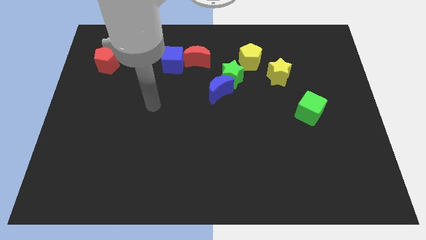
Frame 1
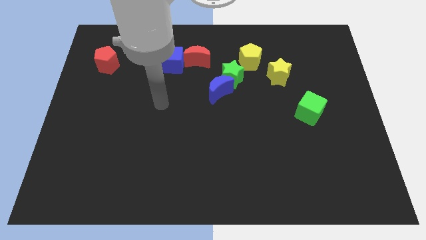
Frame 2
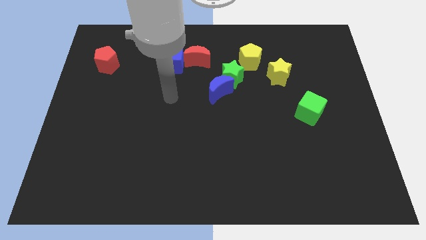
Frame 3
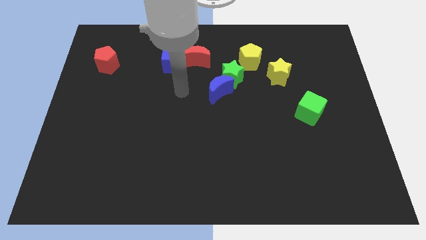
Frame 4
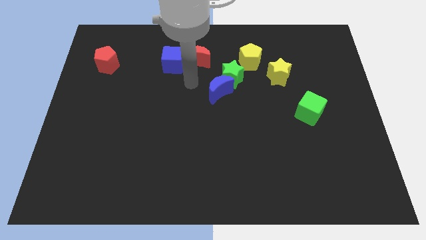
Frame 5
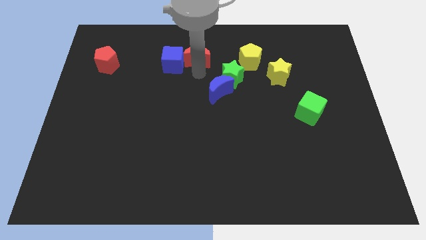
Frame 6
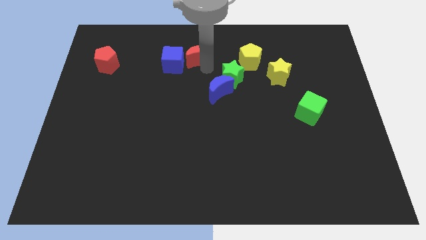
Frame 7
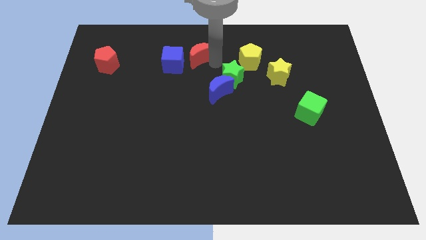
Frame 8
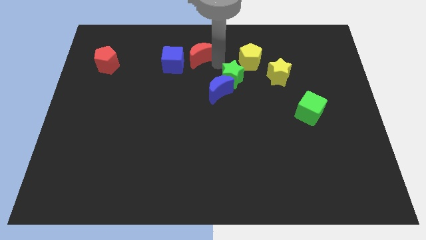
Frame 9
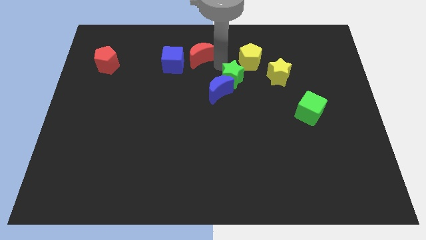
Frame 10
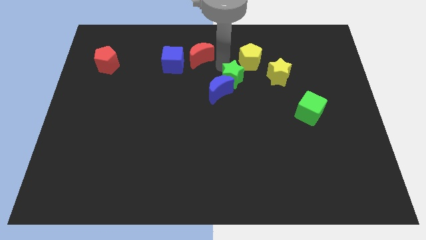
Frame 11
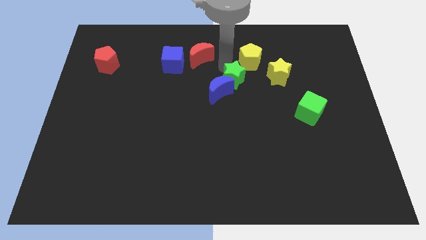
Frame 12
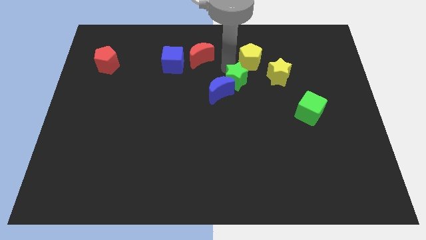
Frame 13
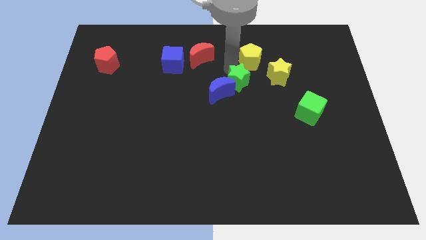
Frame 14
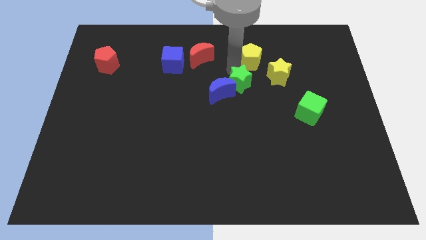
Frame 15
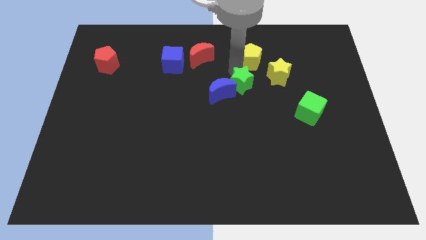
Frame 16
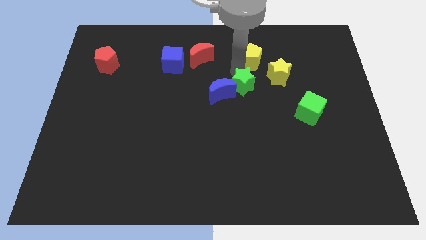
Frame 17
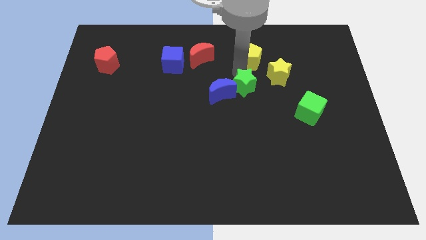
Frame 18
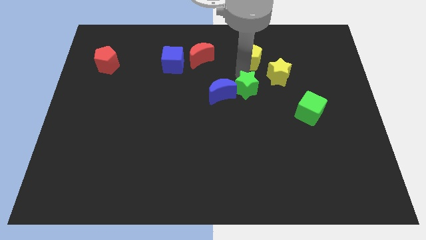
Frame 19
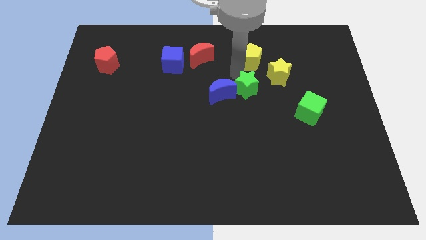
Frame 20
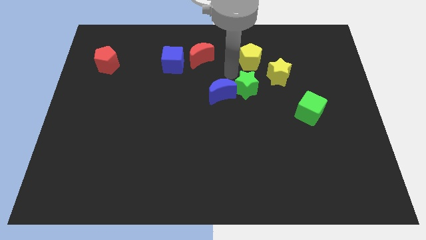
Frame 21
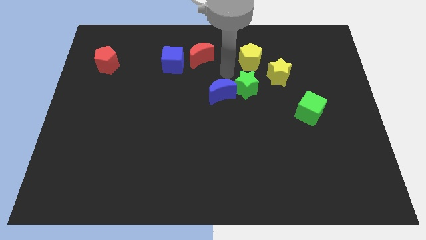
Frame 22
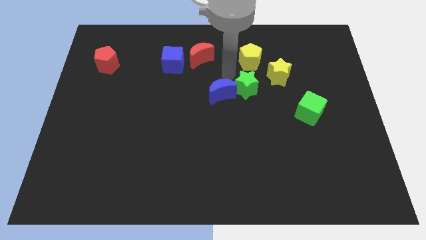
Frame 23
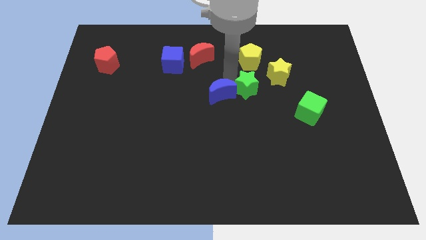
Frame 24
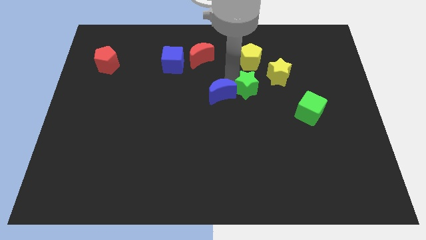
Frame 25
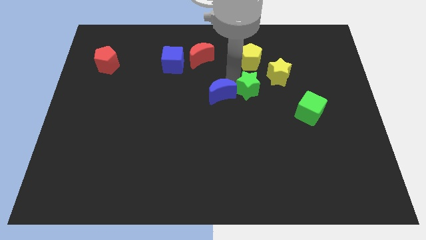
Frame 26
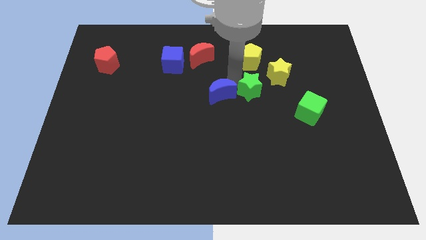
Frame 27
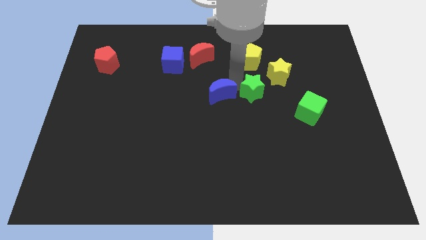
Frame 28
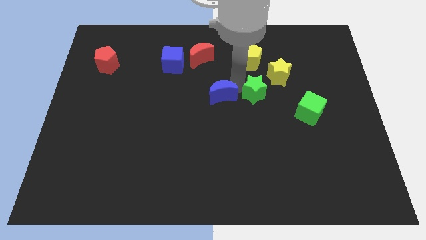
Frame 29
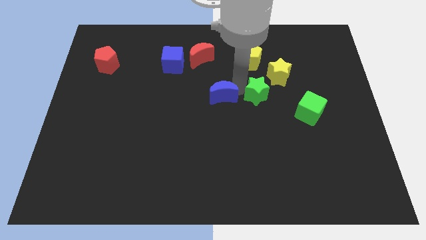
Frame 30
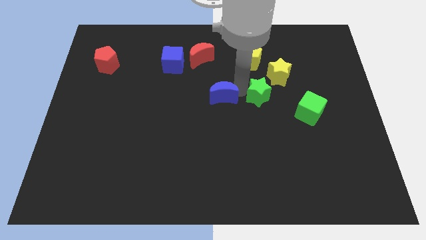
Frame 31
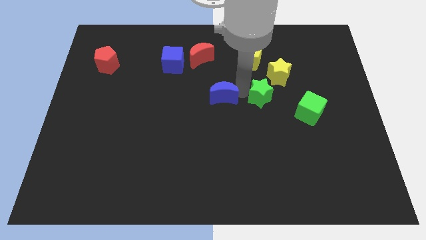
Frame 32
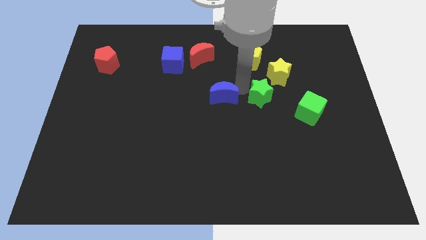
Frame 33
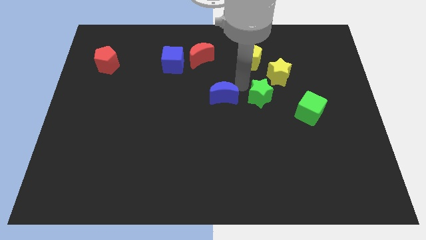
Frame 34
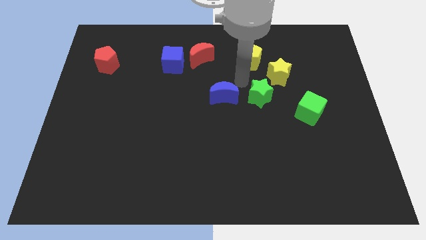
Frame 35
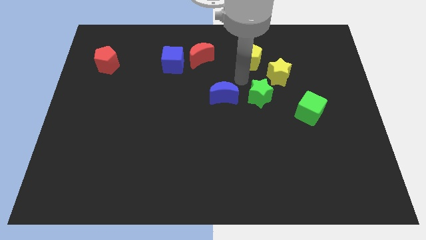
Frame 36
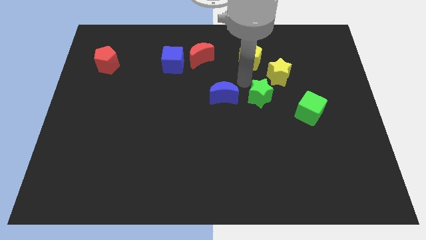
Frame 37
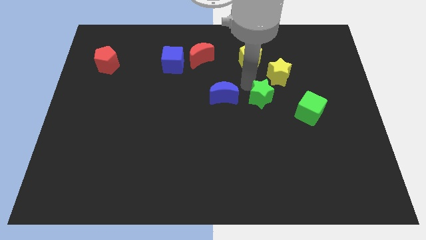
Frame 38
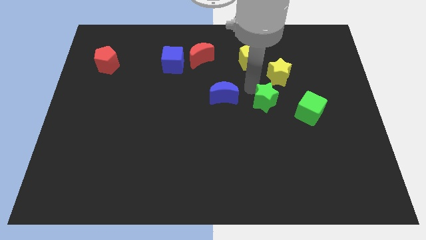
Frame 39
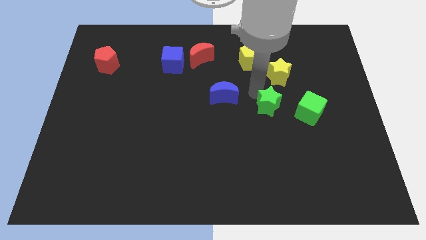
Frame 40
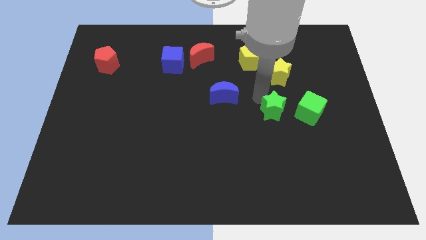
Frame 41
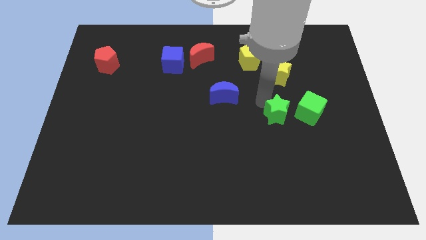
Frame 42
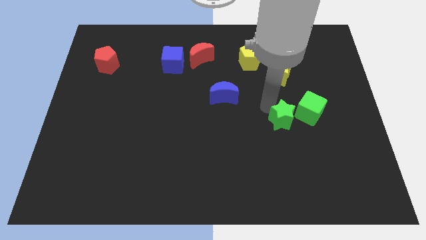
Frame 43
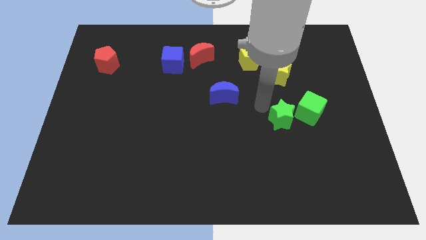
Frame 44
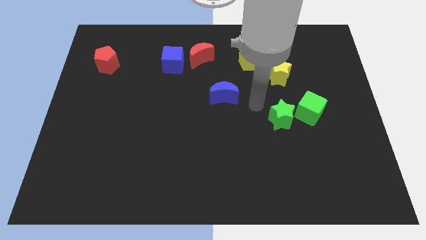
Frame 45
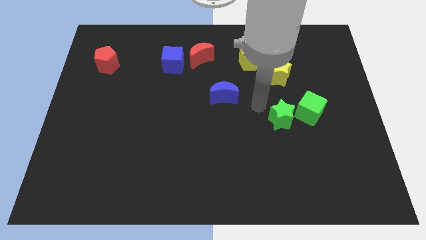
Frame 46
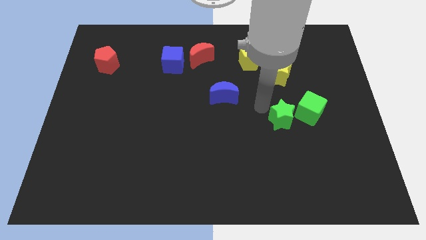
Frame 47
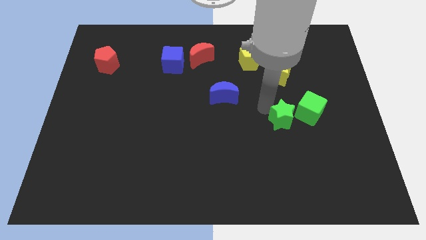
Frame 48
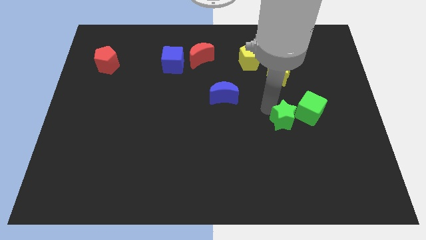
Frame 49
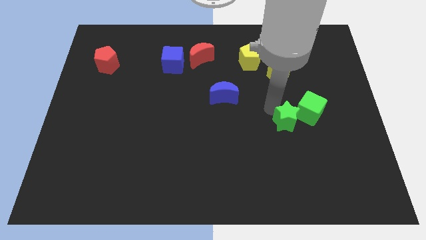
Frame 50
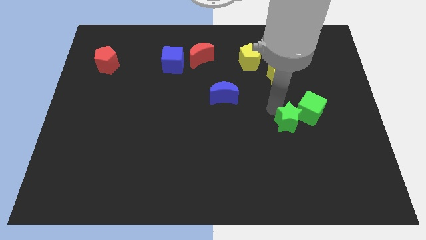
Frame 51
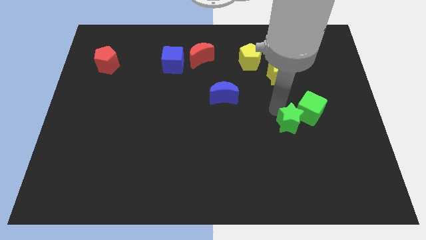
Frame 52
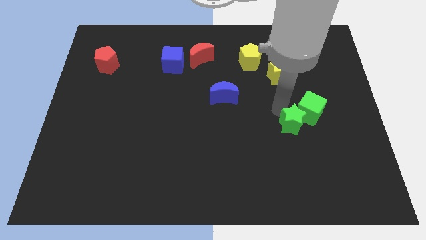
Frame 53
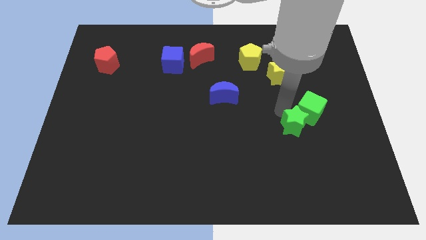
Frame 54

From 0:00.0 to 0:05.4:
slide the green star downwards and to the right diagonally

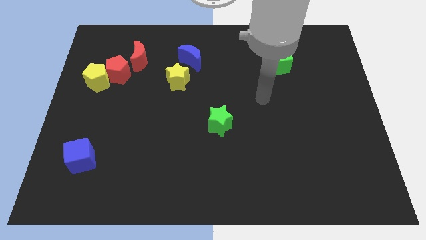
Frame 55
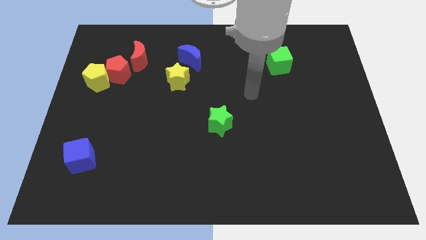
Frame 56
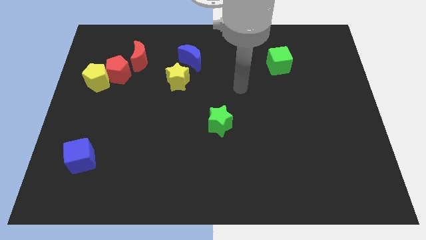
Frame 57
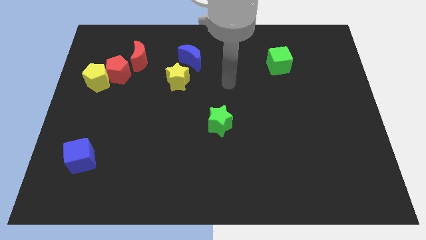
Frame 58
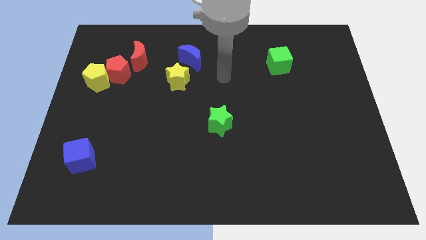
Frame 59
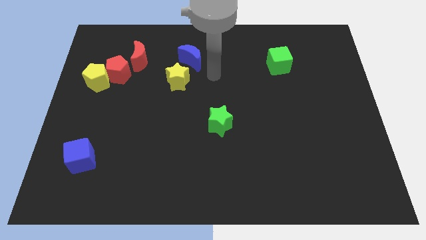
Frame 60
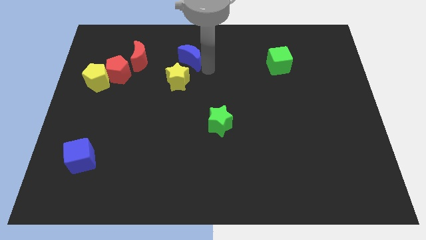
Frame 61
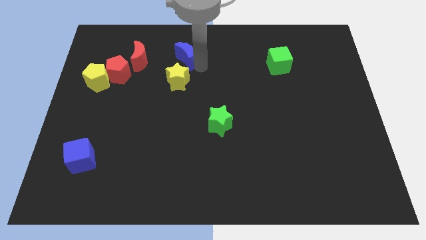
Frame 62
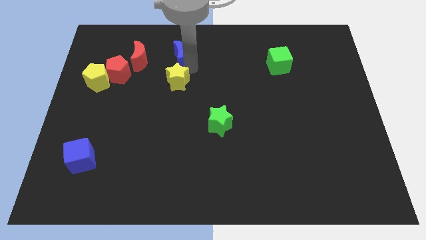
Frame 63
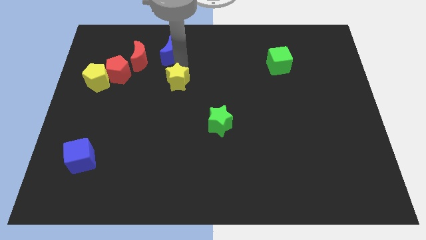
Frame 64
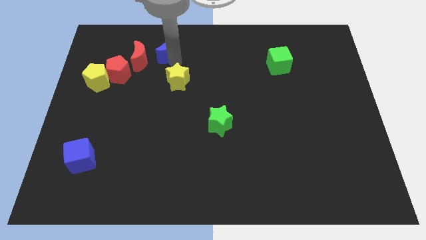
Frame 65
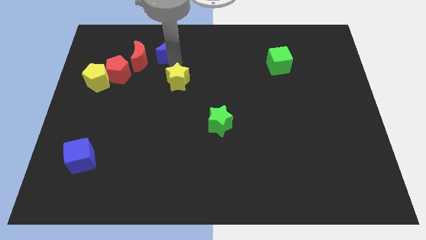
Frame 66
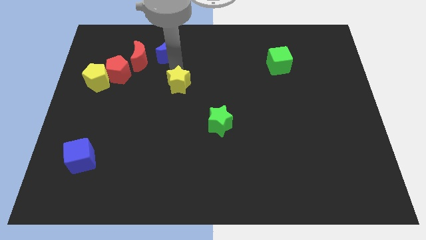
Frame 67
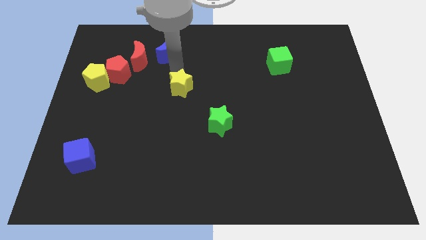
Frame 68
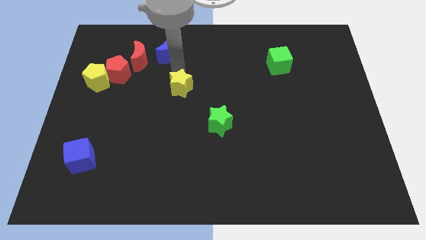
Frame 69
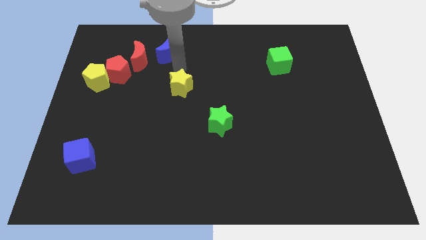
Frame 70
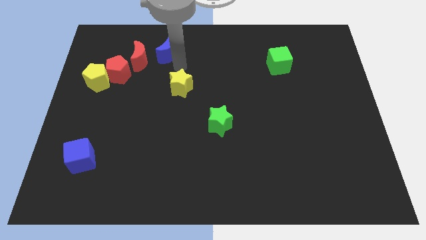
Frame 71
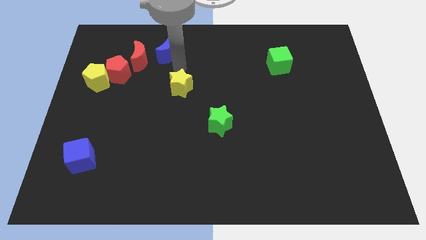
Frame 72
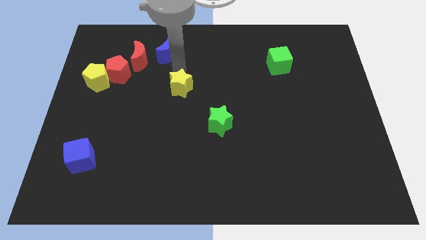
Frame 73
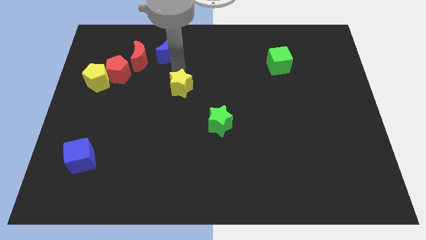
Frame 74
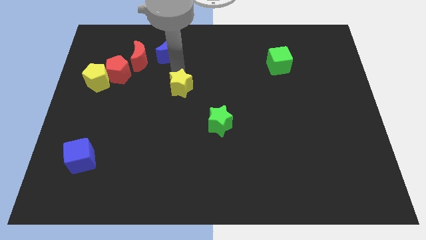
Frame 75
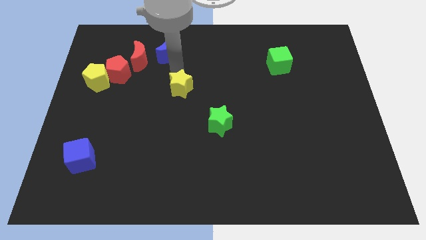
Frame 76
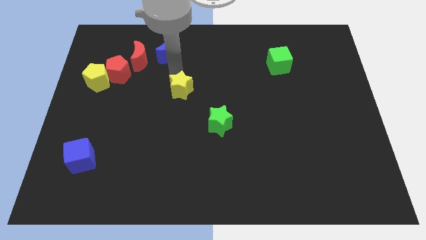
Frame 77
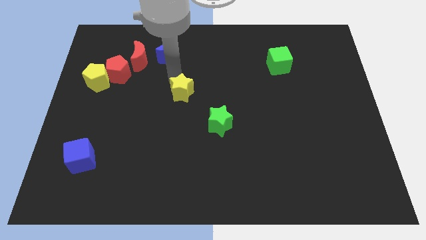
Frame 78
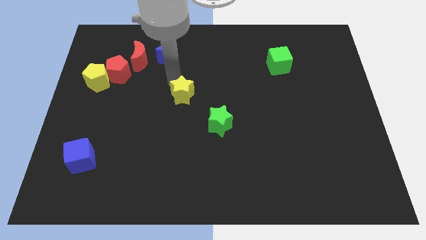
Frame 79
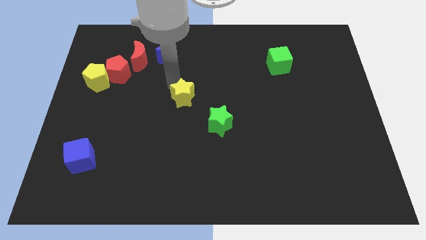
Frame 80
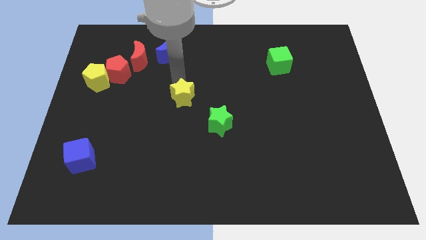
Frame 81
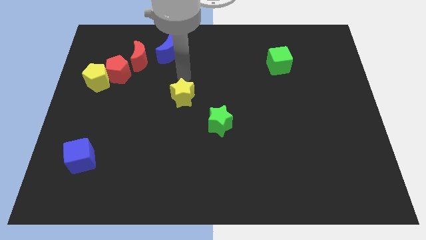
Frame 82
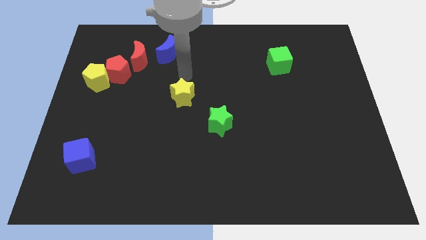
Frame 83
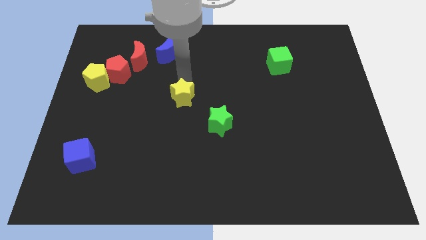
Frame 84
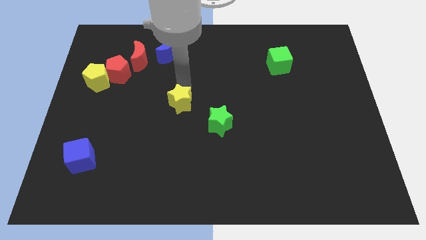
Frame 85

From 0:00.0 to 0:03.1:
move the yellow star down a little
